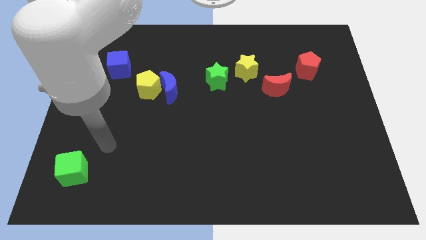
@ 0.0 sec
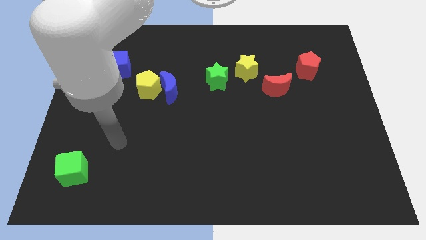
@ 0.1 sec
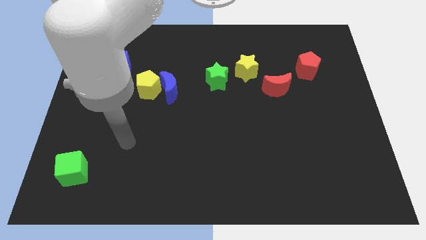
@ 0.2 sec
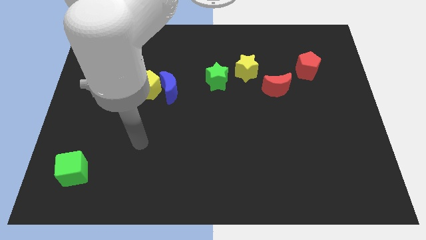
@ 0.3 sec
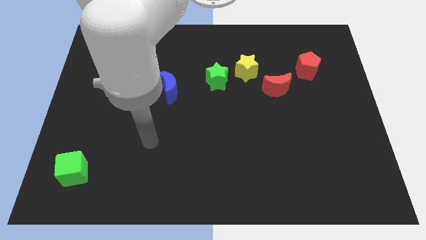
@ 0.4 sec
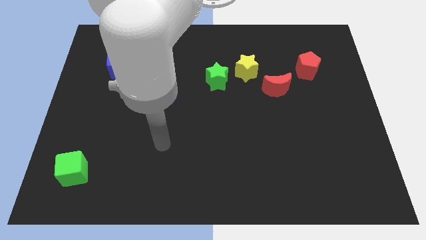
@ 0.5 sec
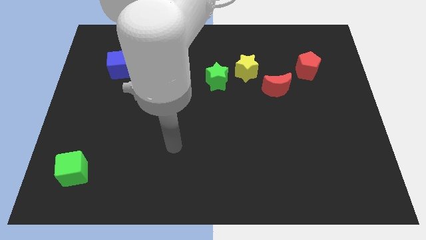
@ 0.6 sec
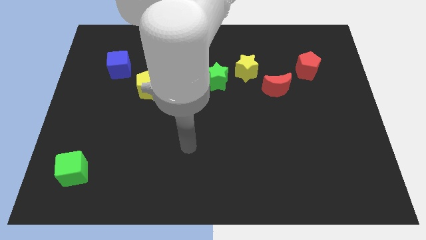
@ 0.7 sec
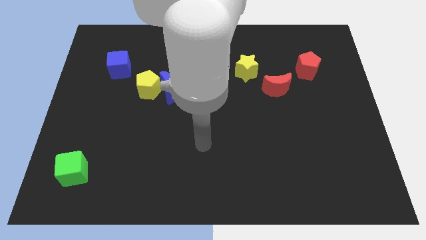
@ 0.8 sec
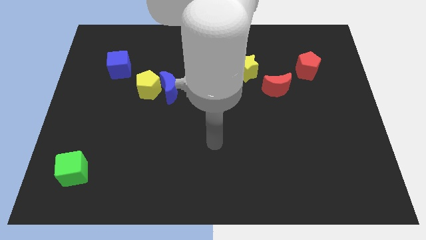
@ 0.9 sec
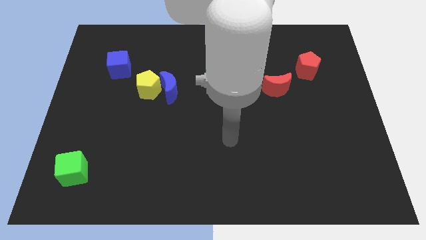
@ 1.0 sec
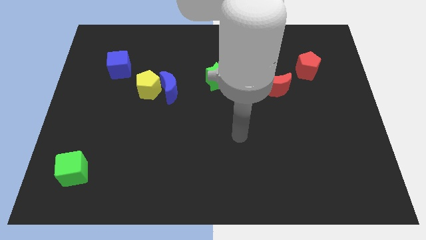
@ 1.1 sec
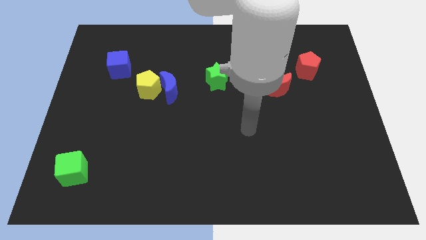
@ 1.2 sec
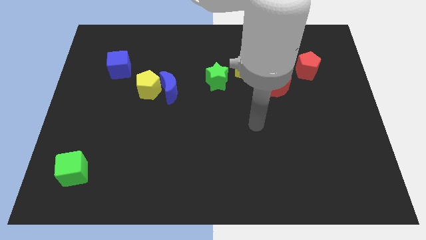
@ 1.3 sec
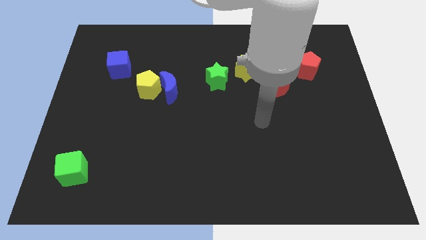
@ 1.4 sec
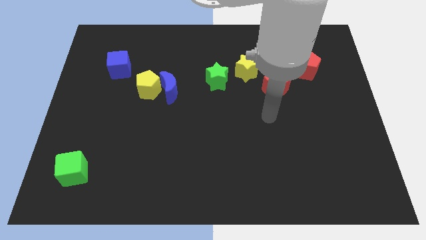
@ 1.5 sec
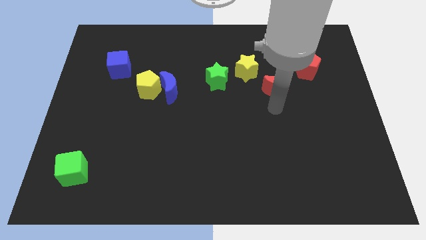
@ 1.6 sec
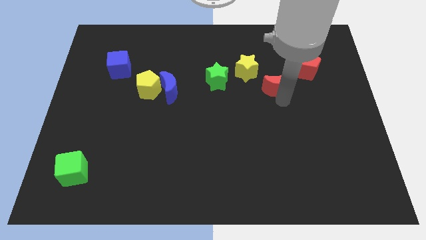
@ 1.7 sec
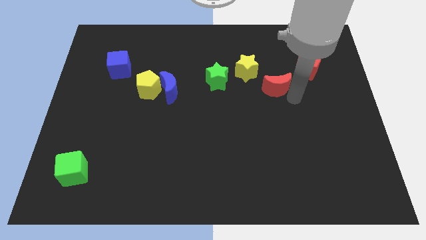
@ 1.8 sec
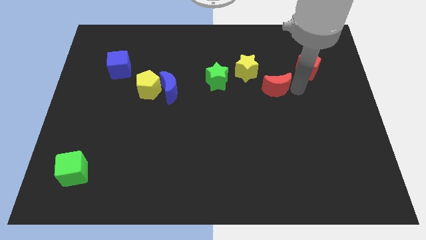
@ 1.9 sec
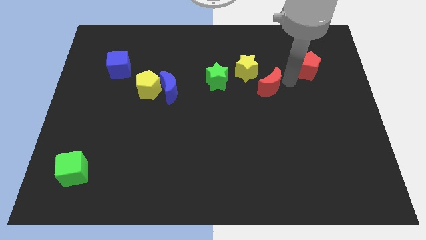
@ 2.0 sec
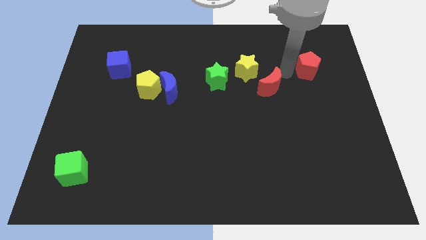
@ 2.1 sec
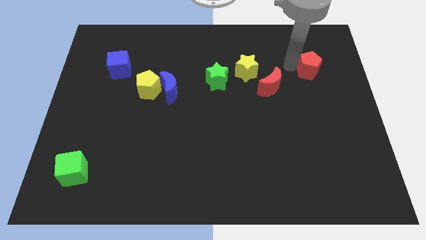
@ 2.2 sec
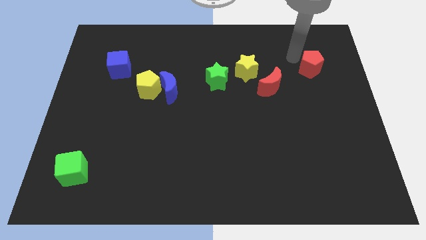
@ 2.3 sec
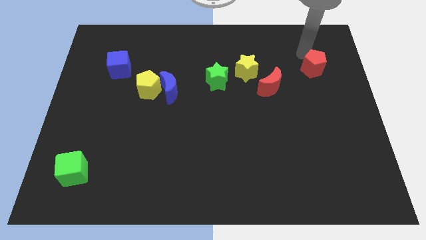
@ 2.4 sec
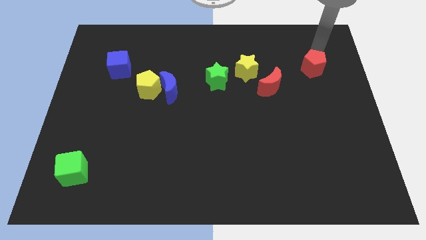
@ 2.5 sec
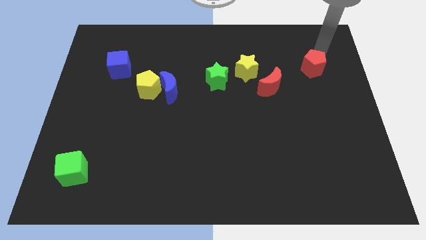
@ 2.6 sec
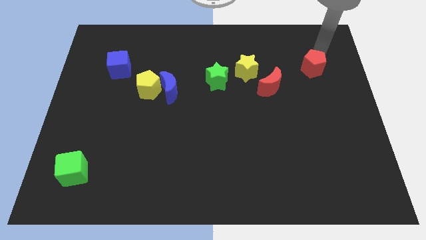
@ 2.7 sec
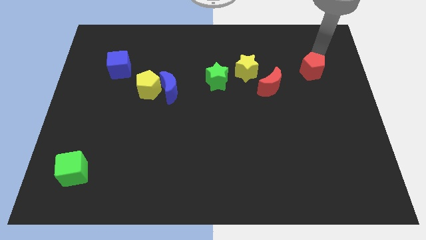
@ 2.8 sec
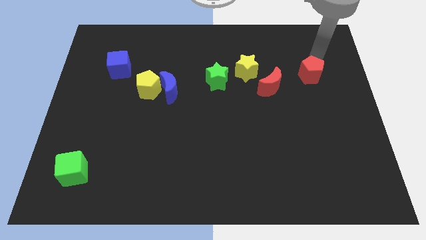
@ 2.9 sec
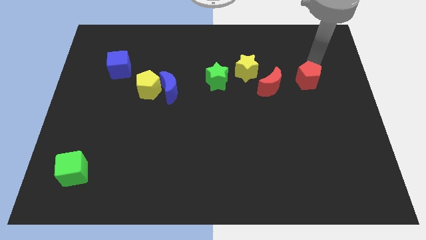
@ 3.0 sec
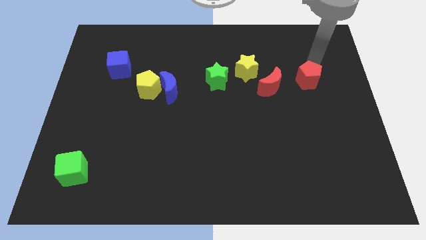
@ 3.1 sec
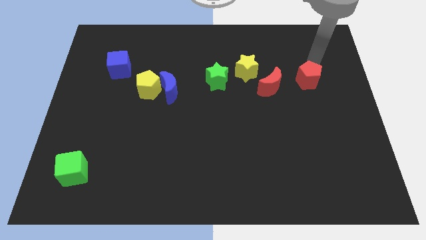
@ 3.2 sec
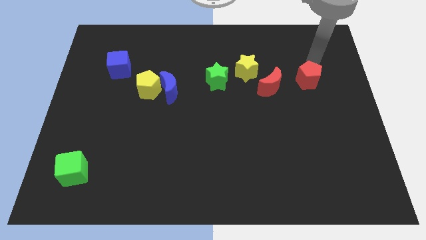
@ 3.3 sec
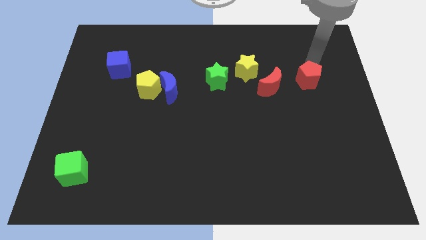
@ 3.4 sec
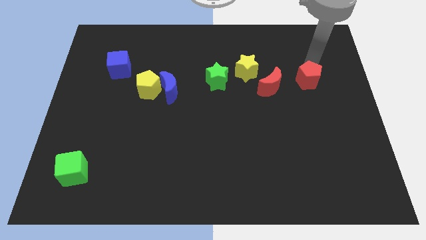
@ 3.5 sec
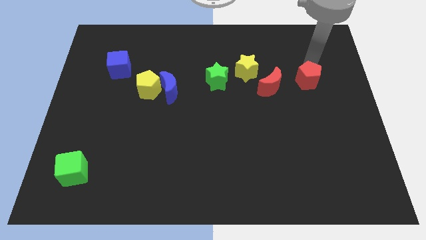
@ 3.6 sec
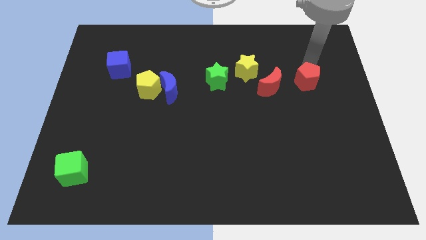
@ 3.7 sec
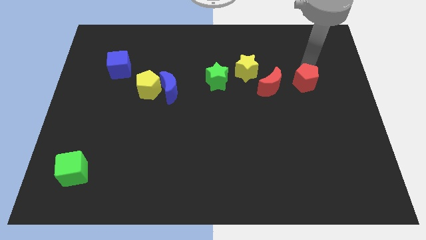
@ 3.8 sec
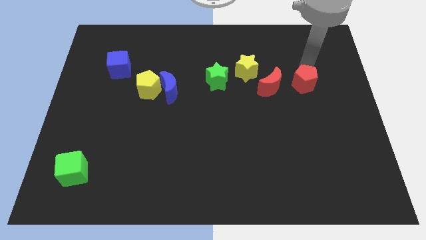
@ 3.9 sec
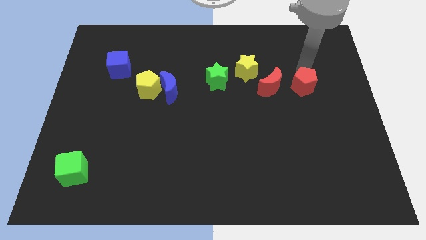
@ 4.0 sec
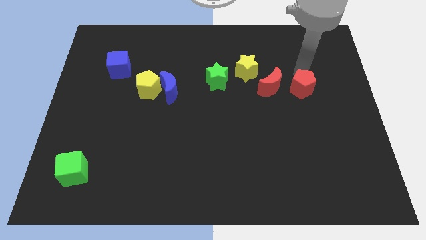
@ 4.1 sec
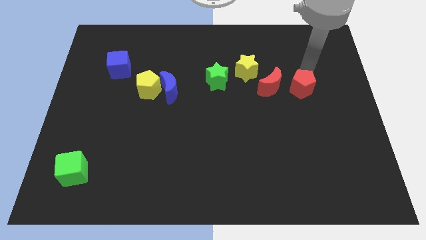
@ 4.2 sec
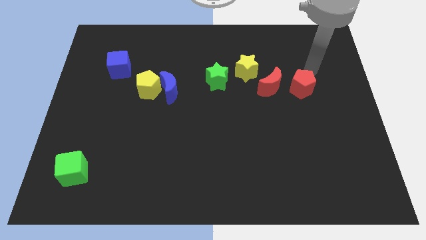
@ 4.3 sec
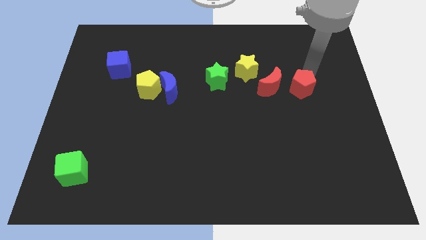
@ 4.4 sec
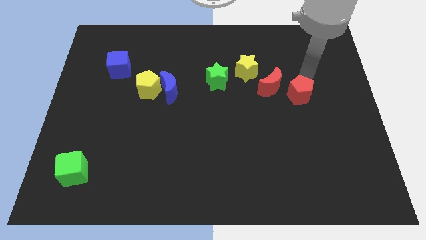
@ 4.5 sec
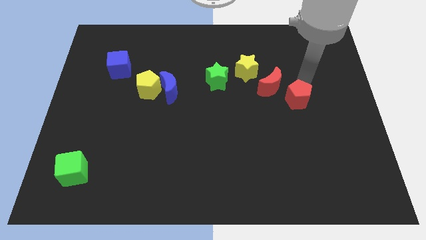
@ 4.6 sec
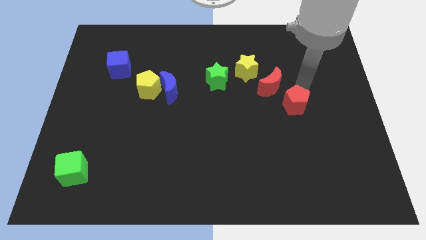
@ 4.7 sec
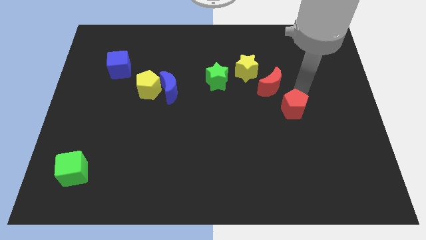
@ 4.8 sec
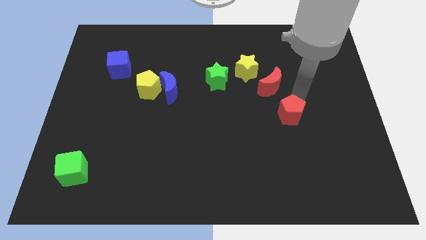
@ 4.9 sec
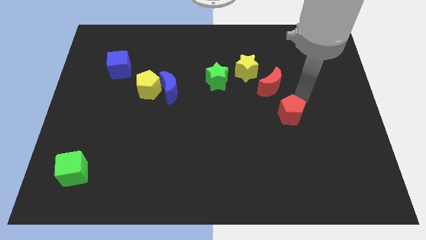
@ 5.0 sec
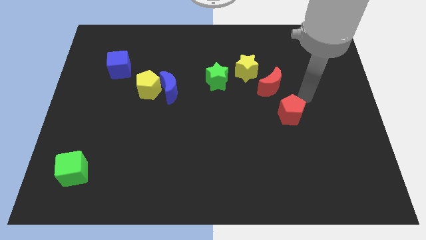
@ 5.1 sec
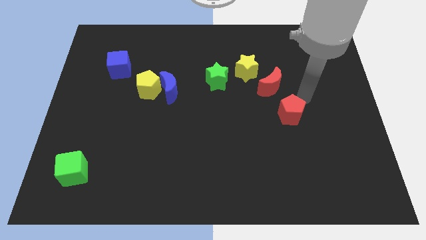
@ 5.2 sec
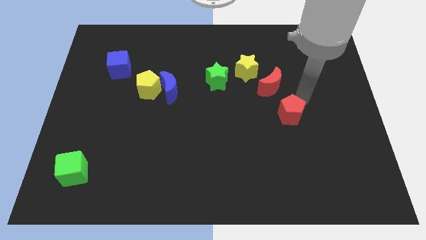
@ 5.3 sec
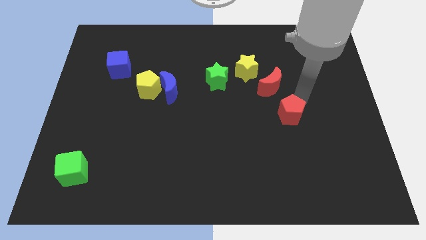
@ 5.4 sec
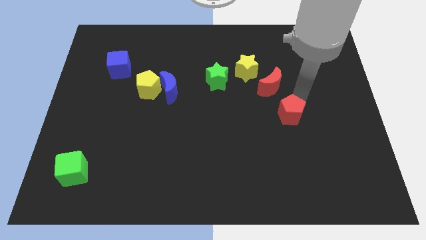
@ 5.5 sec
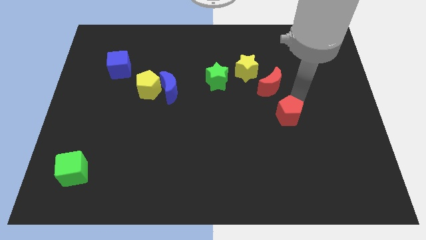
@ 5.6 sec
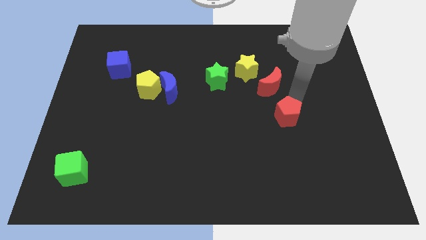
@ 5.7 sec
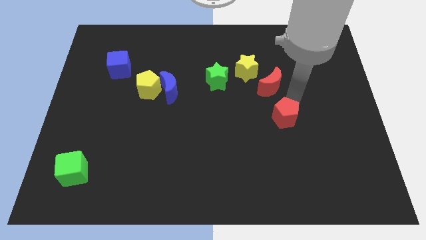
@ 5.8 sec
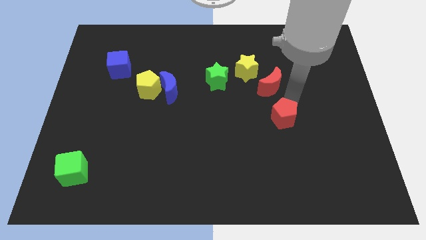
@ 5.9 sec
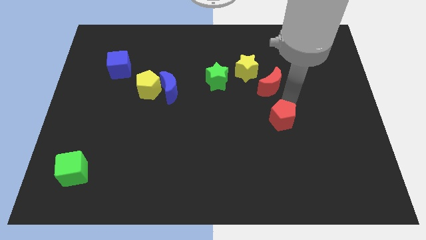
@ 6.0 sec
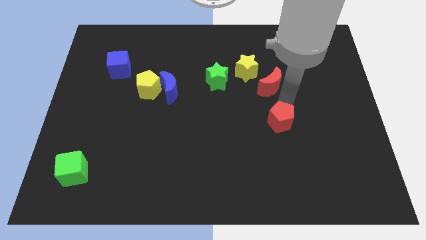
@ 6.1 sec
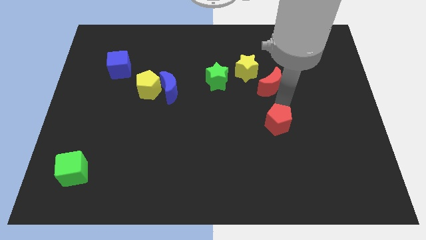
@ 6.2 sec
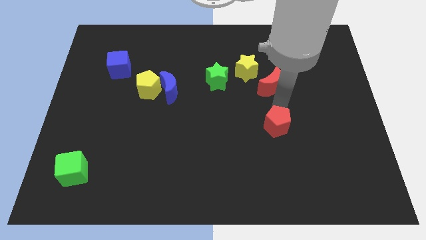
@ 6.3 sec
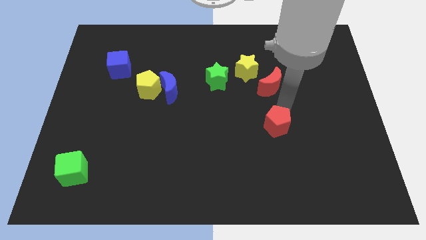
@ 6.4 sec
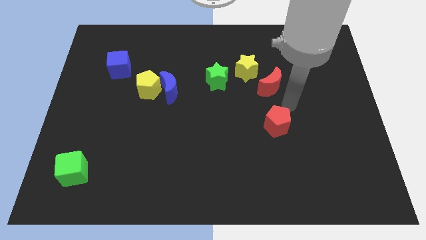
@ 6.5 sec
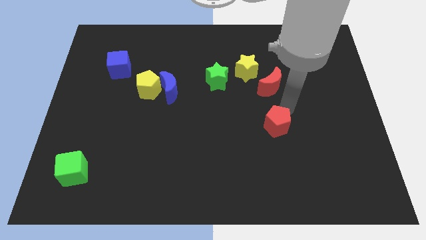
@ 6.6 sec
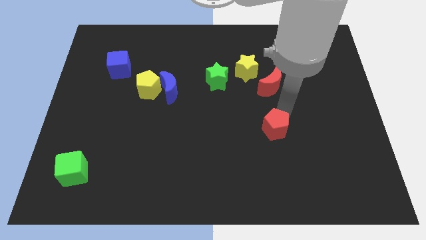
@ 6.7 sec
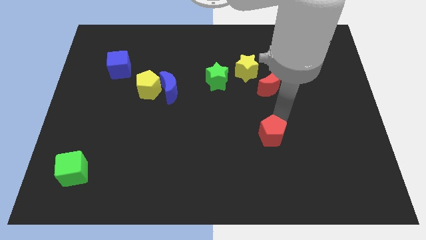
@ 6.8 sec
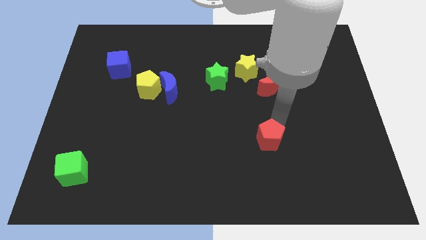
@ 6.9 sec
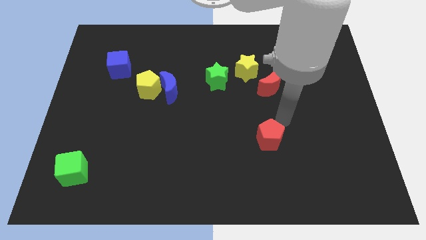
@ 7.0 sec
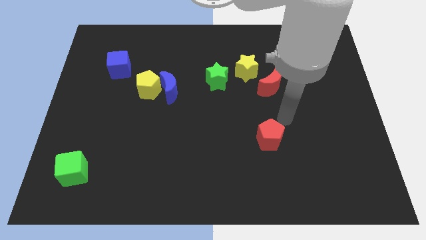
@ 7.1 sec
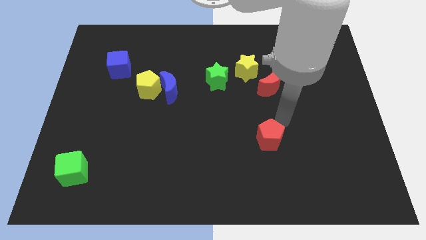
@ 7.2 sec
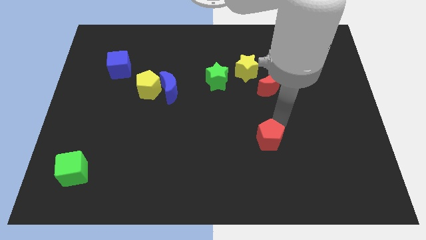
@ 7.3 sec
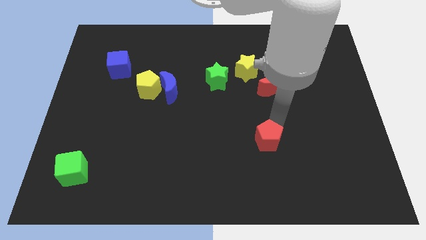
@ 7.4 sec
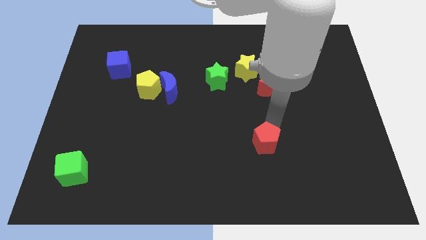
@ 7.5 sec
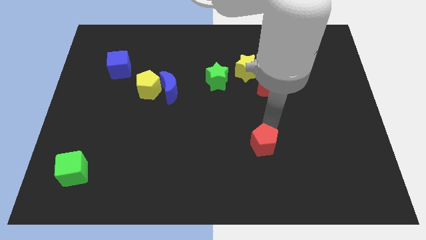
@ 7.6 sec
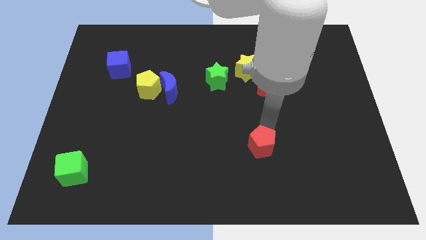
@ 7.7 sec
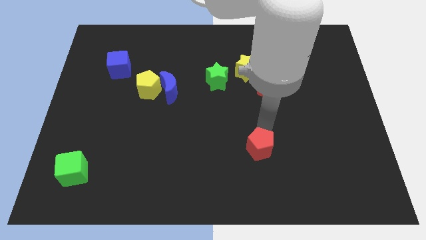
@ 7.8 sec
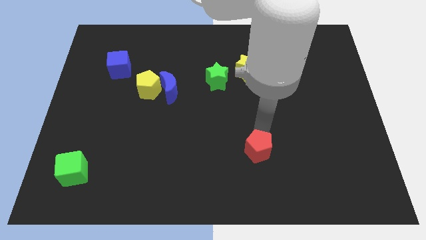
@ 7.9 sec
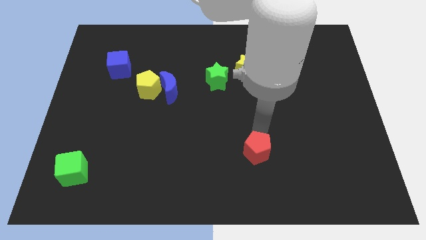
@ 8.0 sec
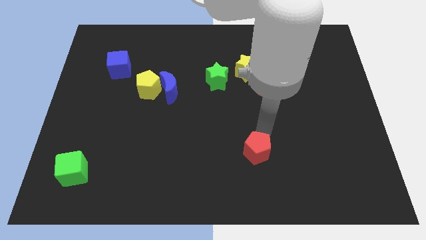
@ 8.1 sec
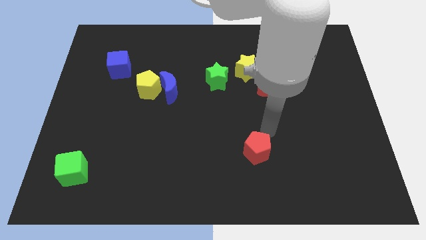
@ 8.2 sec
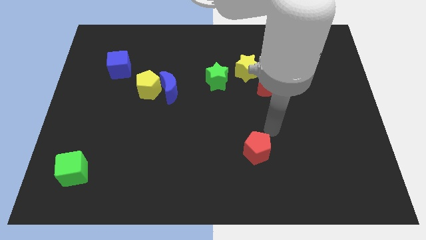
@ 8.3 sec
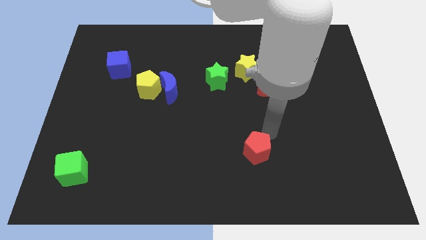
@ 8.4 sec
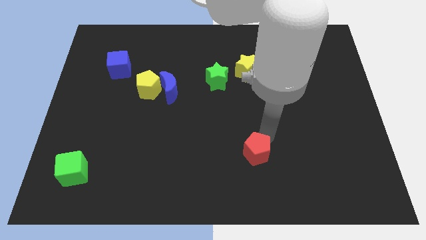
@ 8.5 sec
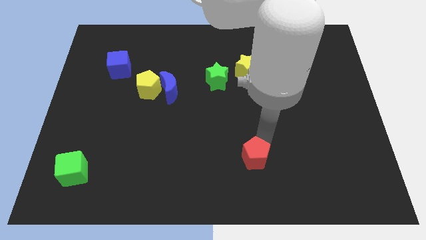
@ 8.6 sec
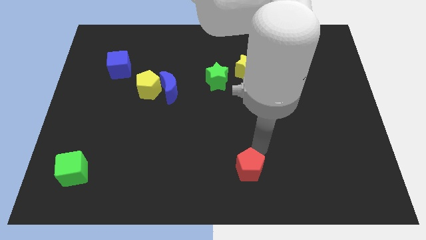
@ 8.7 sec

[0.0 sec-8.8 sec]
move the red pentagon to the bottom
